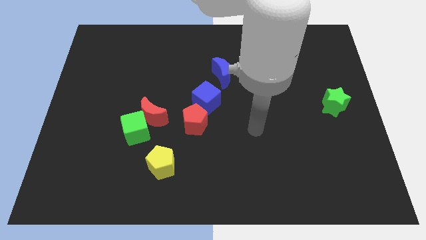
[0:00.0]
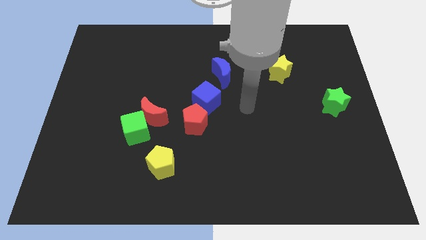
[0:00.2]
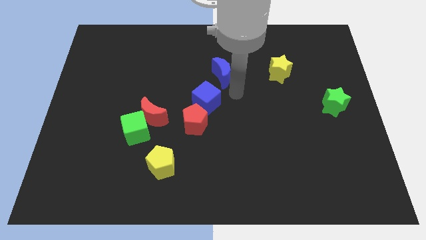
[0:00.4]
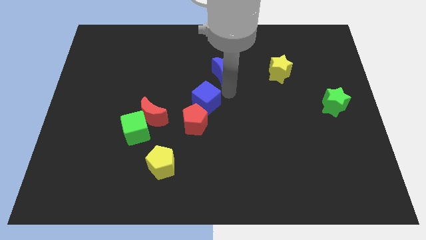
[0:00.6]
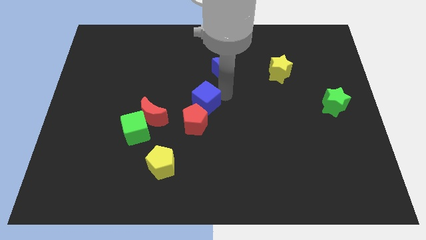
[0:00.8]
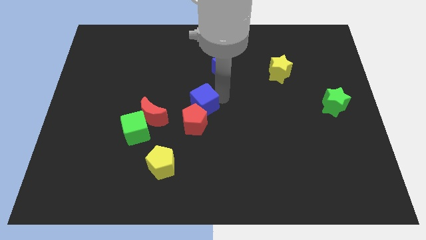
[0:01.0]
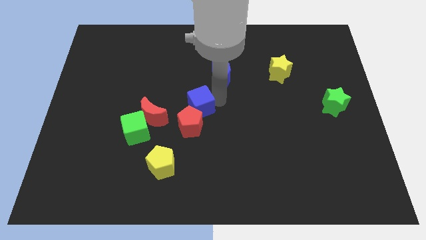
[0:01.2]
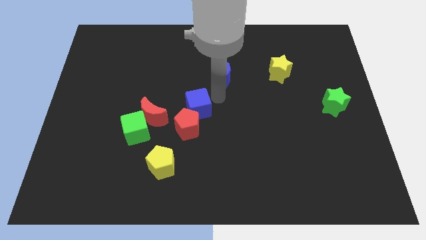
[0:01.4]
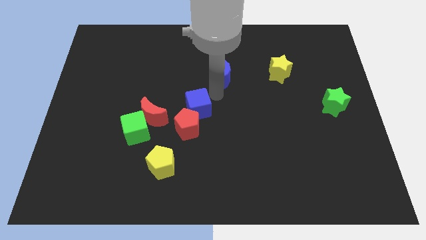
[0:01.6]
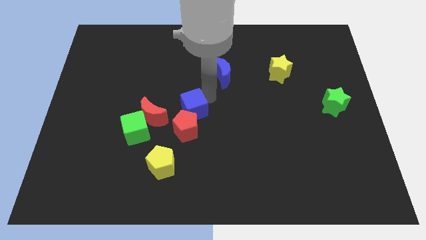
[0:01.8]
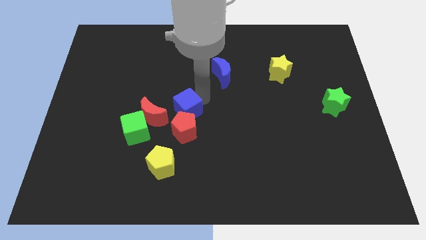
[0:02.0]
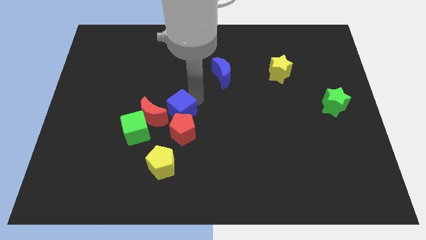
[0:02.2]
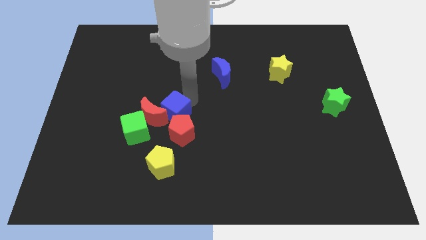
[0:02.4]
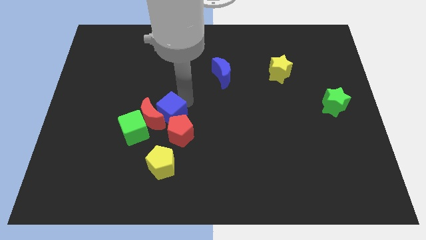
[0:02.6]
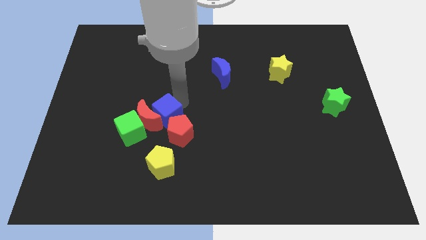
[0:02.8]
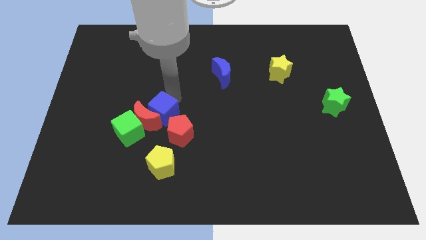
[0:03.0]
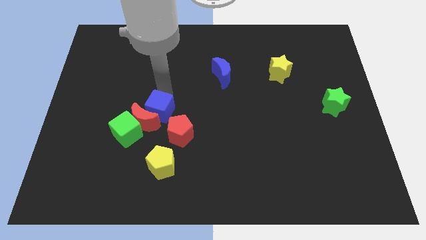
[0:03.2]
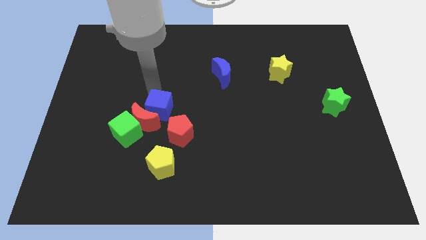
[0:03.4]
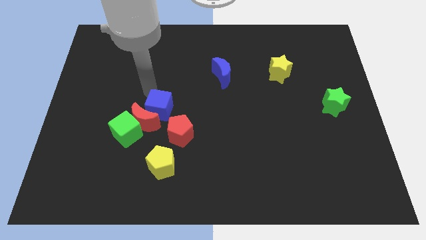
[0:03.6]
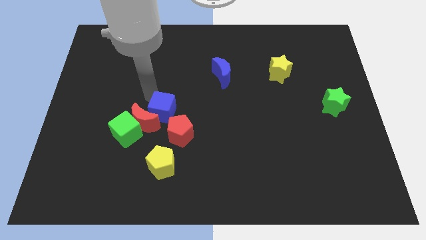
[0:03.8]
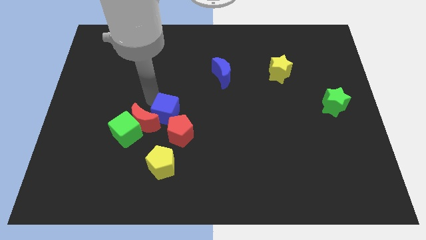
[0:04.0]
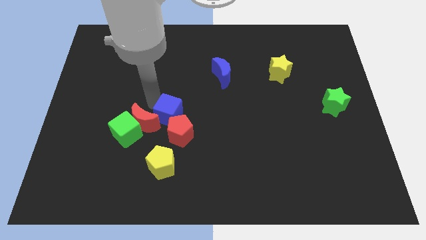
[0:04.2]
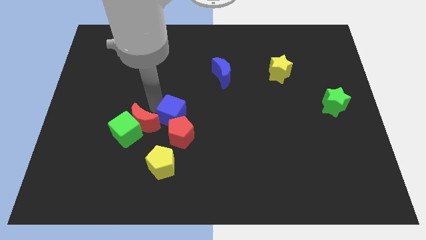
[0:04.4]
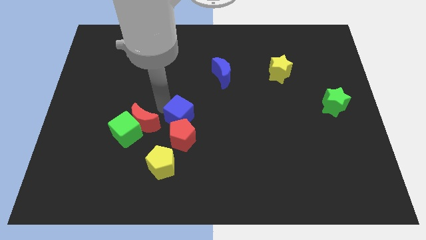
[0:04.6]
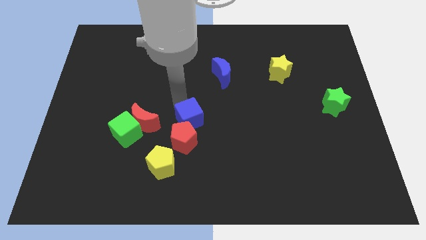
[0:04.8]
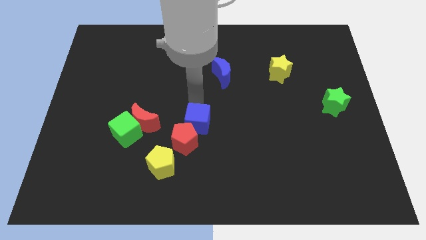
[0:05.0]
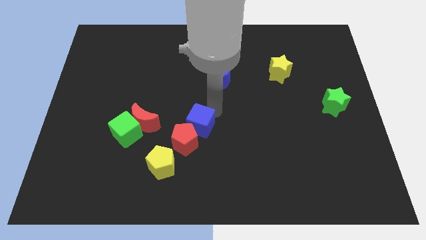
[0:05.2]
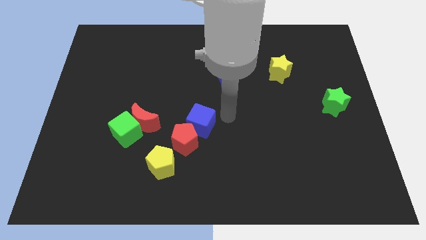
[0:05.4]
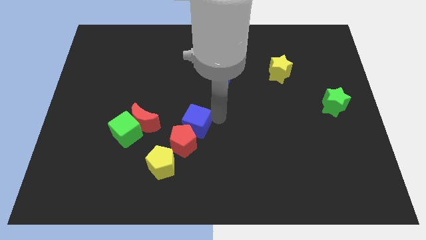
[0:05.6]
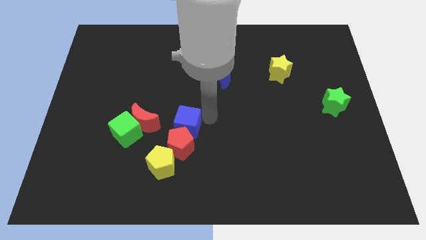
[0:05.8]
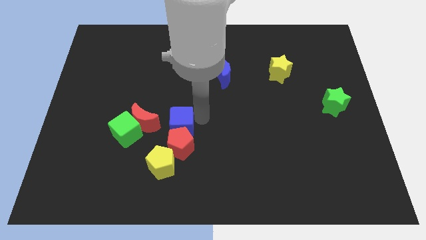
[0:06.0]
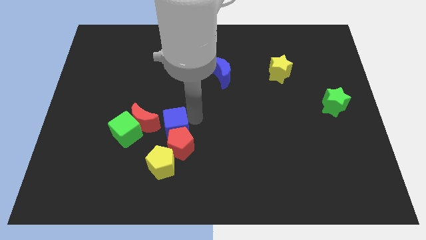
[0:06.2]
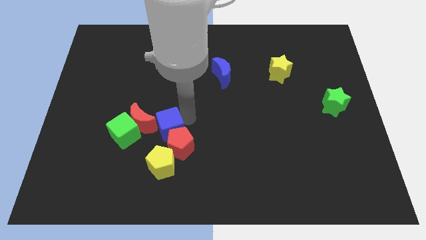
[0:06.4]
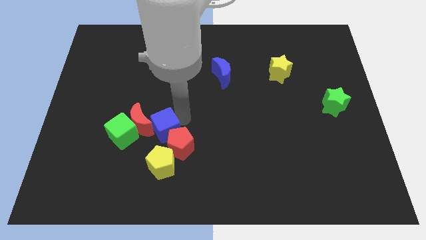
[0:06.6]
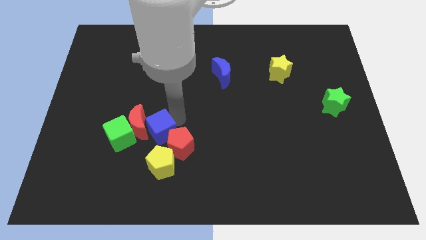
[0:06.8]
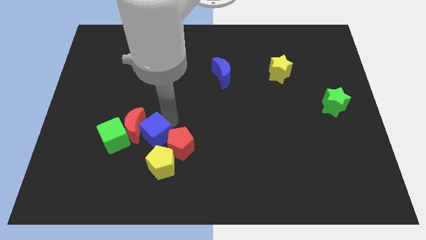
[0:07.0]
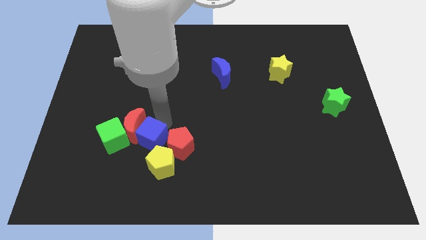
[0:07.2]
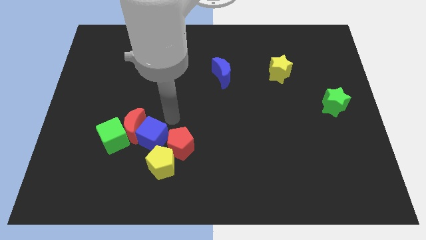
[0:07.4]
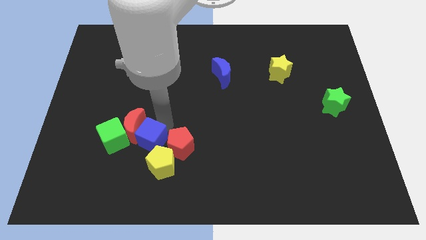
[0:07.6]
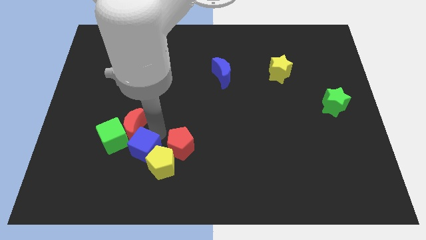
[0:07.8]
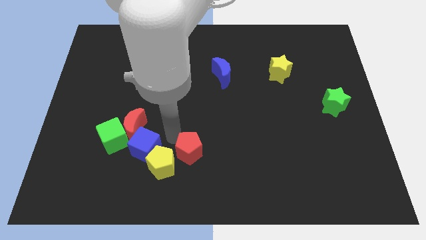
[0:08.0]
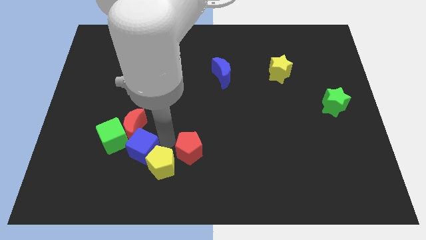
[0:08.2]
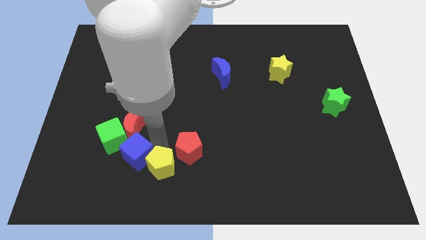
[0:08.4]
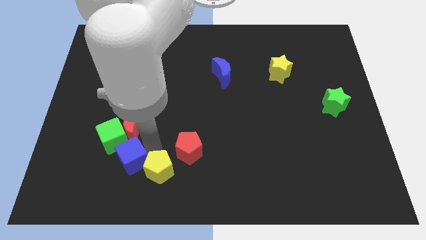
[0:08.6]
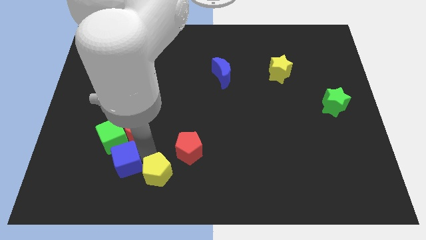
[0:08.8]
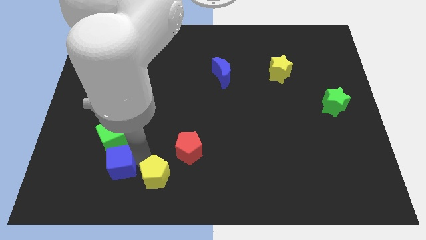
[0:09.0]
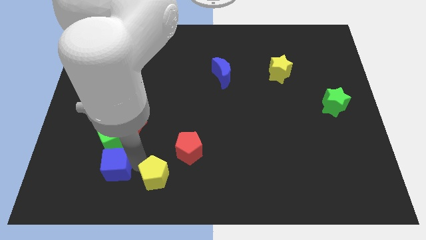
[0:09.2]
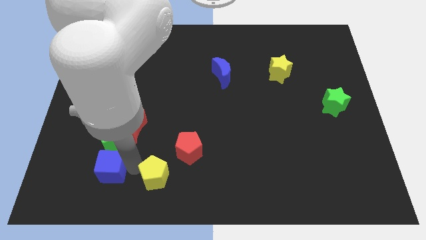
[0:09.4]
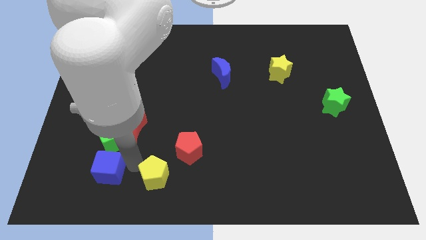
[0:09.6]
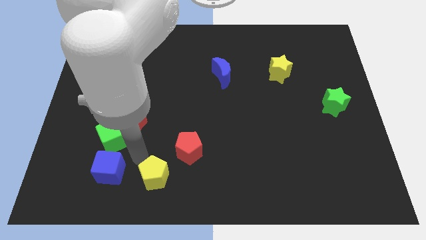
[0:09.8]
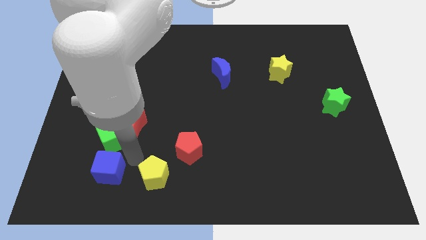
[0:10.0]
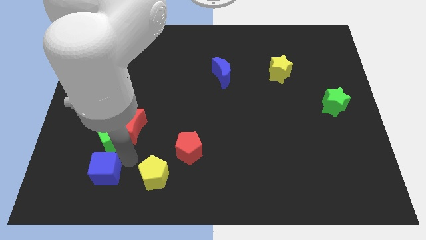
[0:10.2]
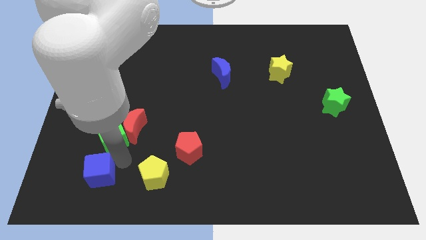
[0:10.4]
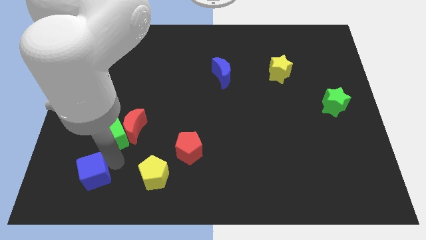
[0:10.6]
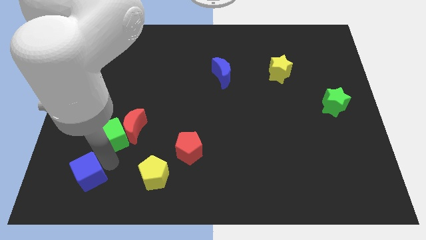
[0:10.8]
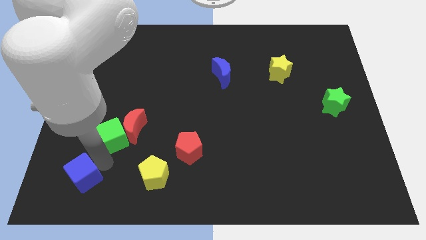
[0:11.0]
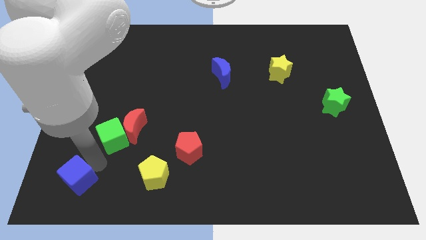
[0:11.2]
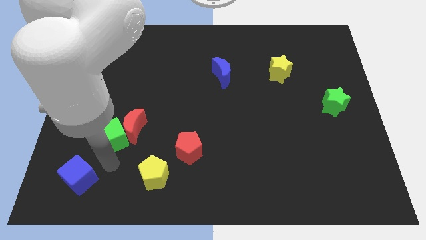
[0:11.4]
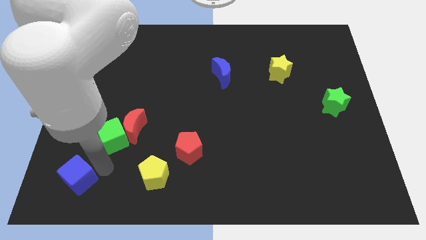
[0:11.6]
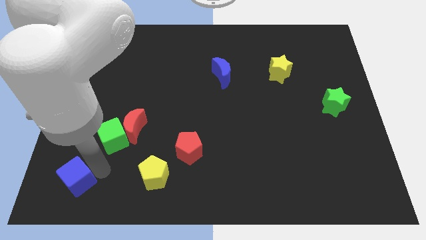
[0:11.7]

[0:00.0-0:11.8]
move the blue cube to the bottom left of the board
